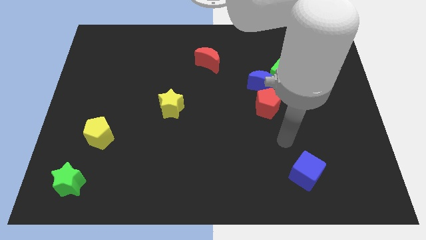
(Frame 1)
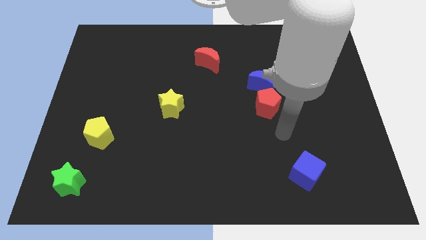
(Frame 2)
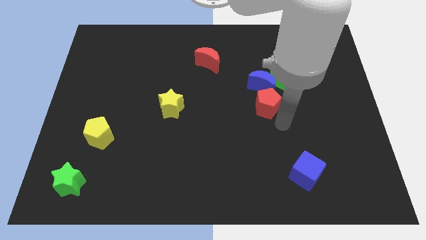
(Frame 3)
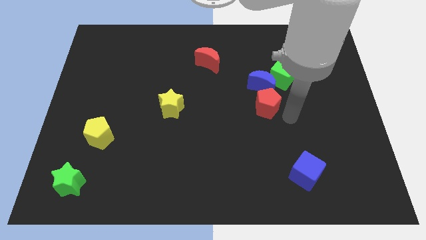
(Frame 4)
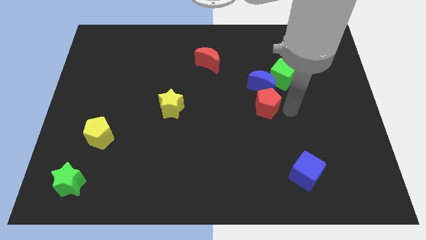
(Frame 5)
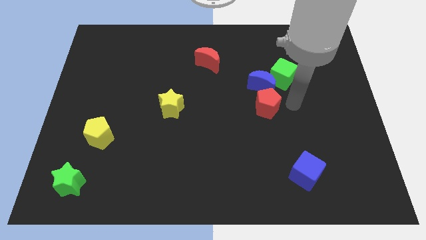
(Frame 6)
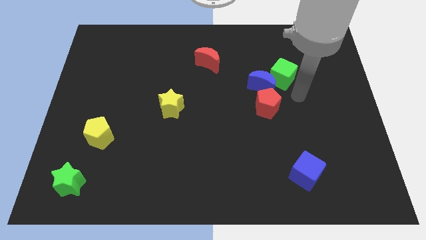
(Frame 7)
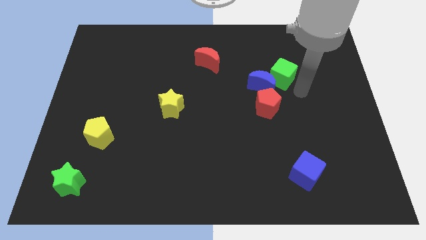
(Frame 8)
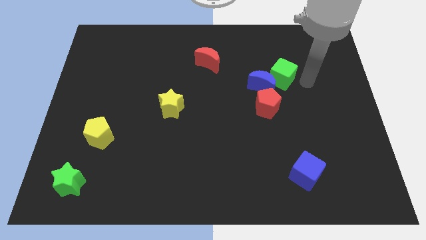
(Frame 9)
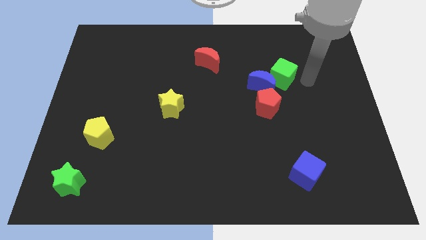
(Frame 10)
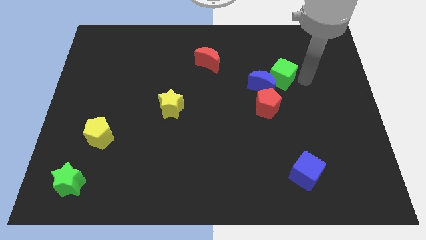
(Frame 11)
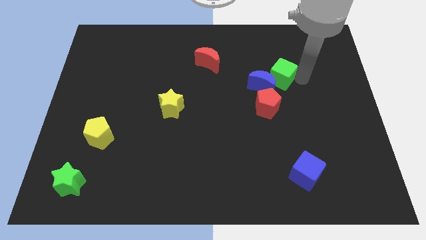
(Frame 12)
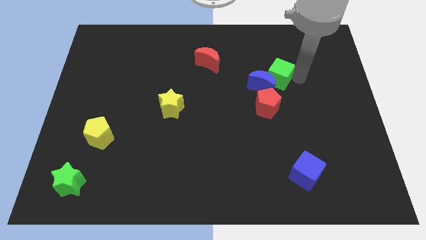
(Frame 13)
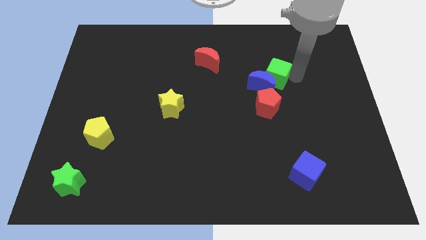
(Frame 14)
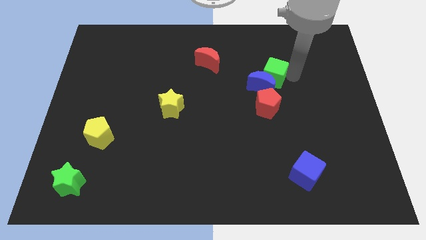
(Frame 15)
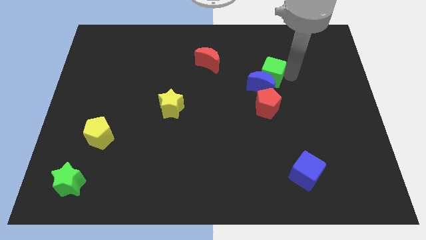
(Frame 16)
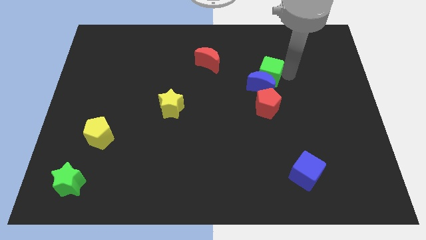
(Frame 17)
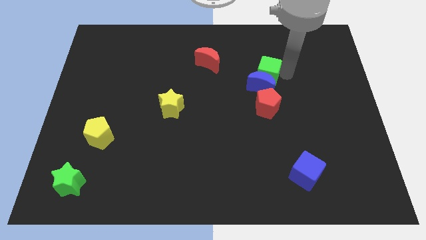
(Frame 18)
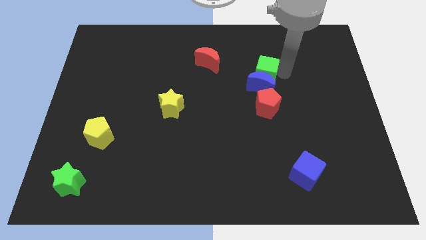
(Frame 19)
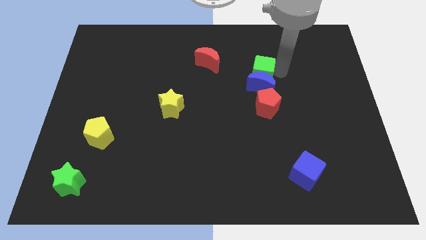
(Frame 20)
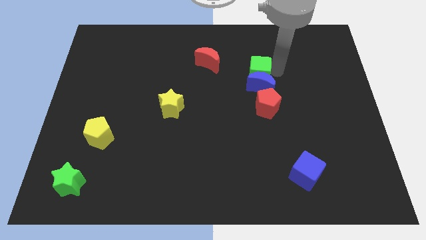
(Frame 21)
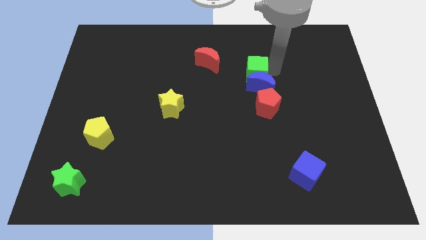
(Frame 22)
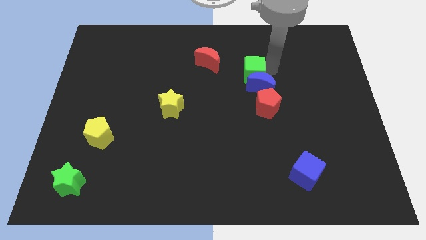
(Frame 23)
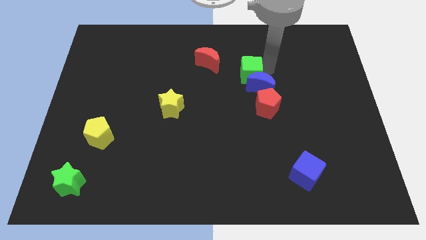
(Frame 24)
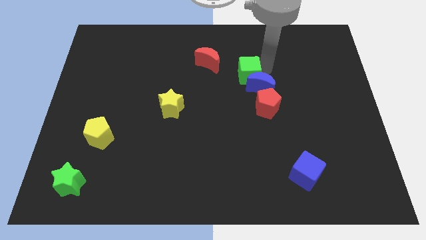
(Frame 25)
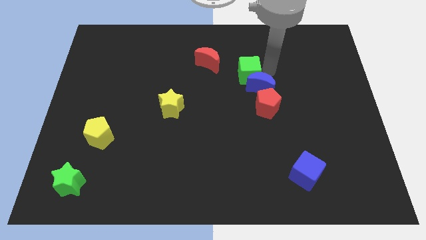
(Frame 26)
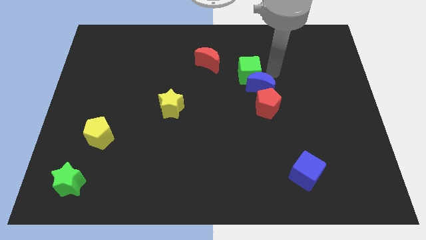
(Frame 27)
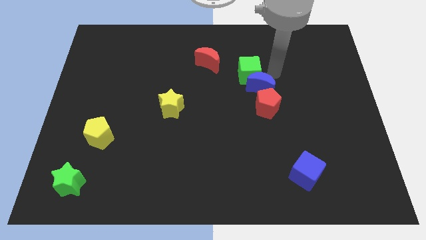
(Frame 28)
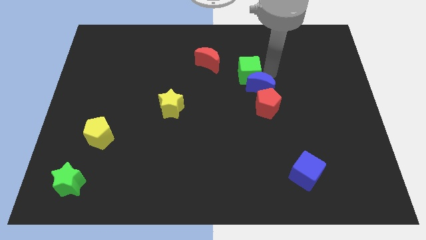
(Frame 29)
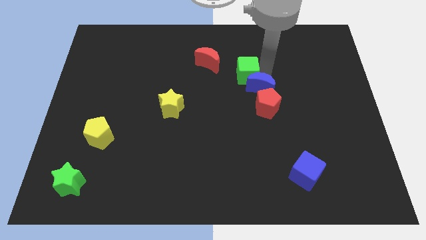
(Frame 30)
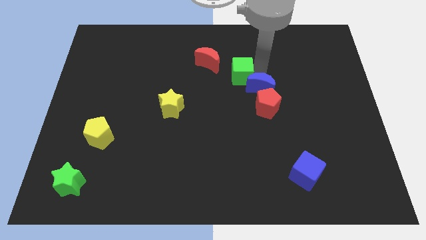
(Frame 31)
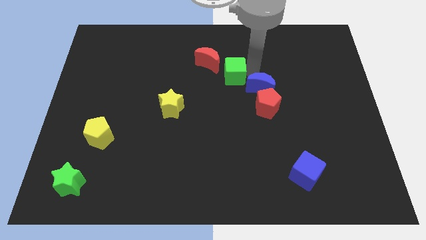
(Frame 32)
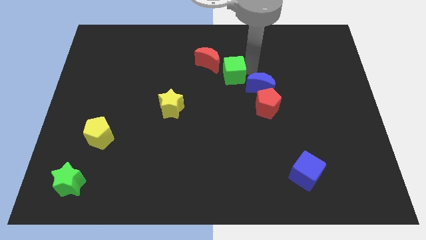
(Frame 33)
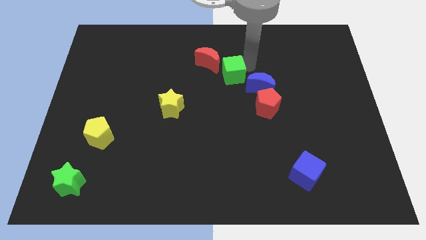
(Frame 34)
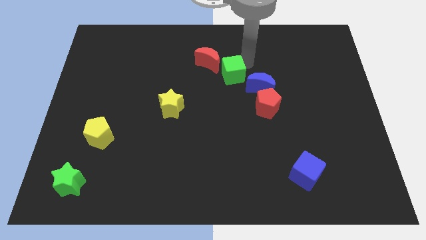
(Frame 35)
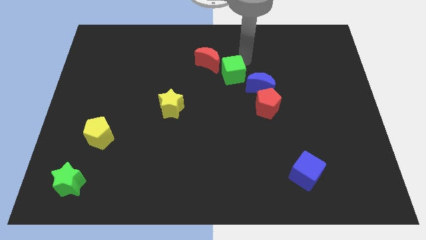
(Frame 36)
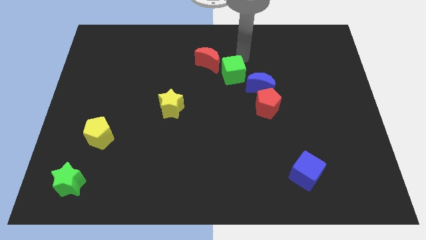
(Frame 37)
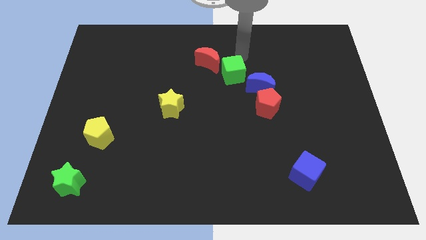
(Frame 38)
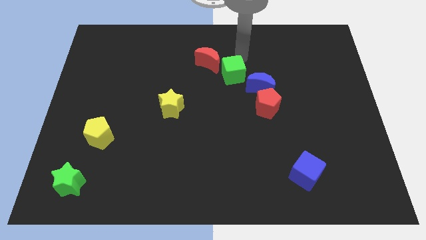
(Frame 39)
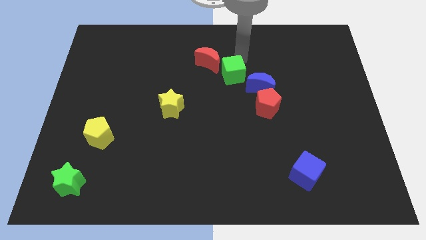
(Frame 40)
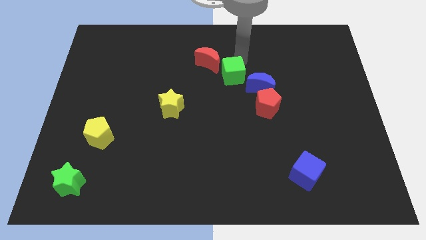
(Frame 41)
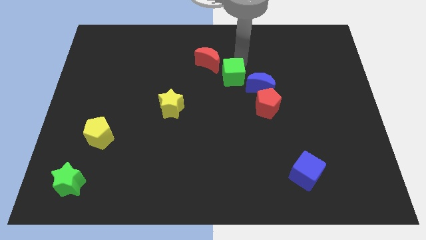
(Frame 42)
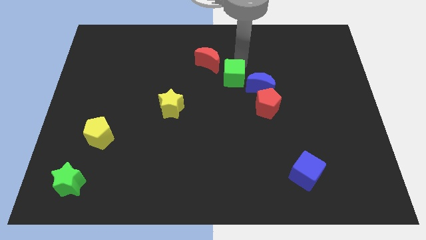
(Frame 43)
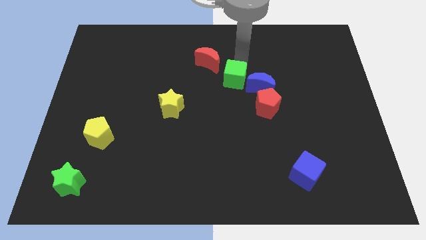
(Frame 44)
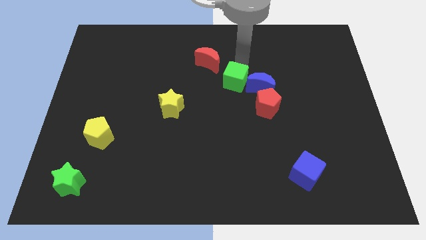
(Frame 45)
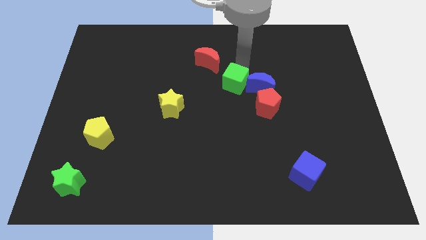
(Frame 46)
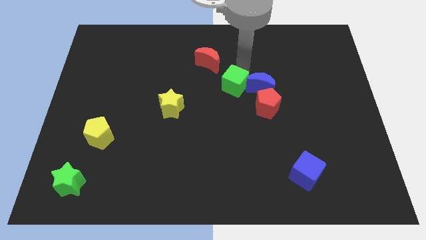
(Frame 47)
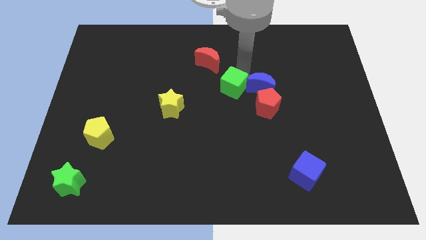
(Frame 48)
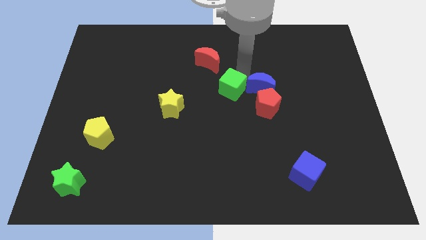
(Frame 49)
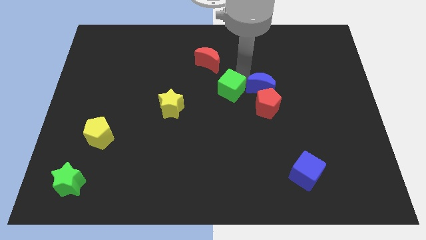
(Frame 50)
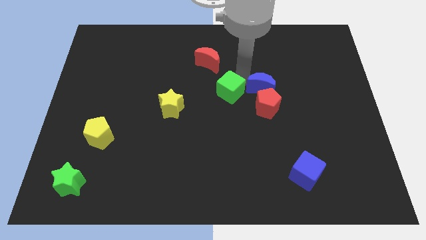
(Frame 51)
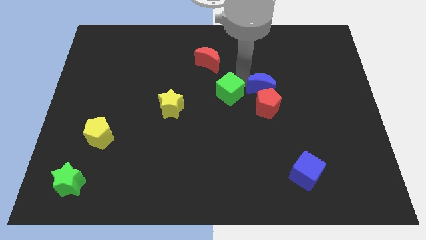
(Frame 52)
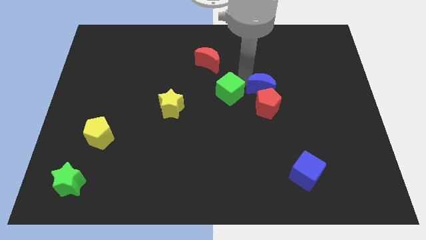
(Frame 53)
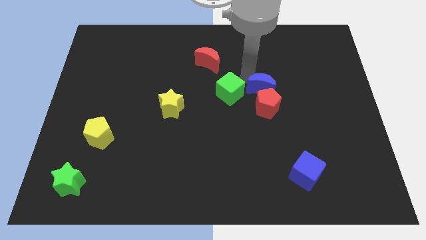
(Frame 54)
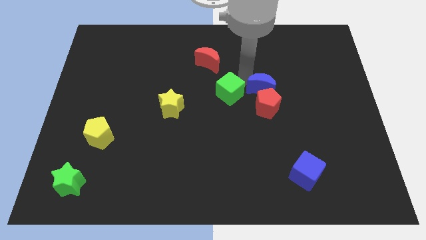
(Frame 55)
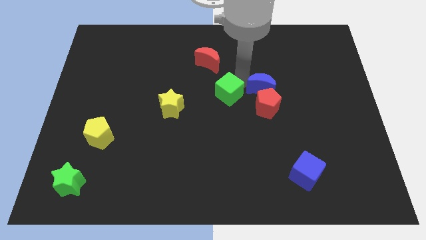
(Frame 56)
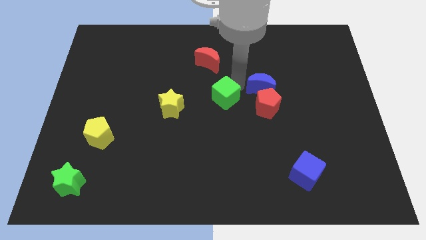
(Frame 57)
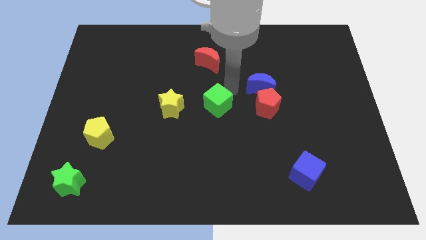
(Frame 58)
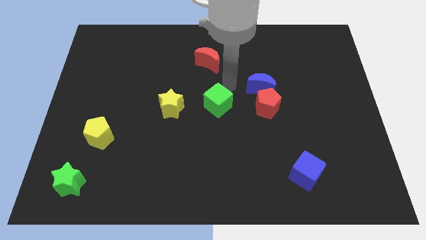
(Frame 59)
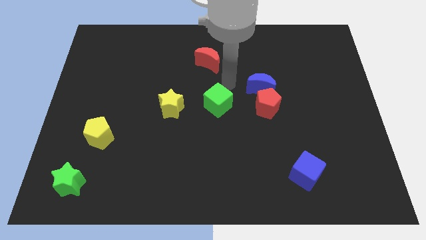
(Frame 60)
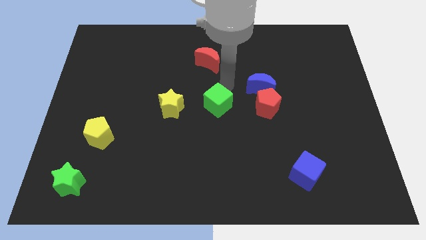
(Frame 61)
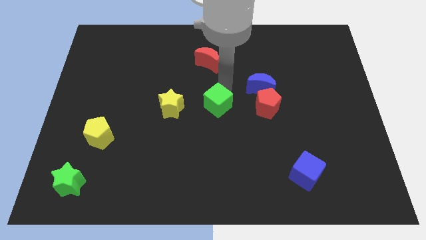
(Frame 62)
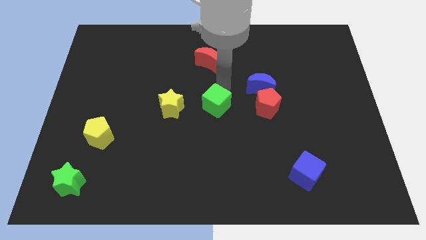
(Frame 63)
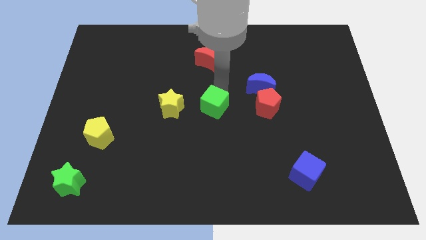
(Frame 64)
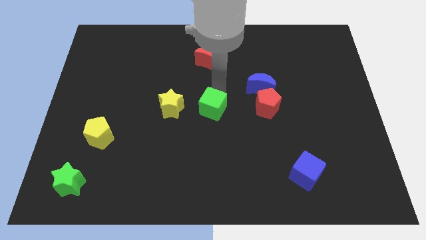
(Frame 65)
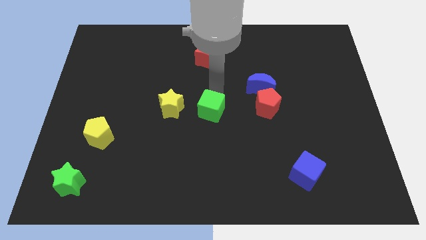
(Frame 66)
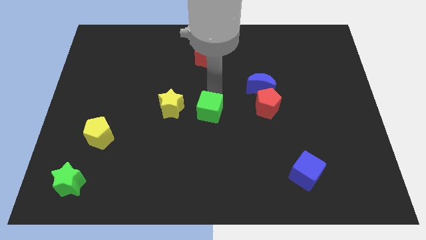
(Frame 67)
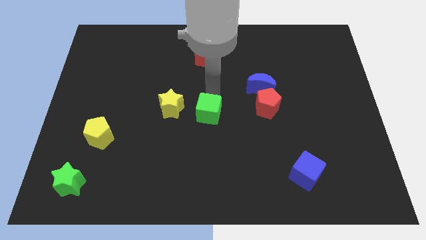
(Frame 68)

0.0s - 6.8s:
move the green cube diagonally down and left

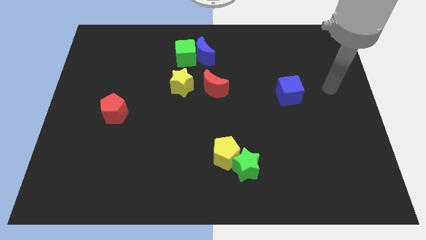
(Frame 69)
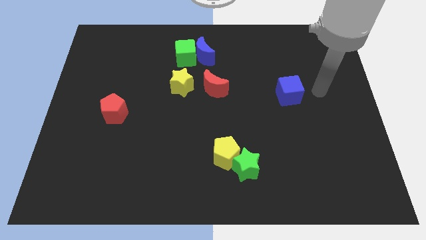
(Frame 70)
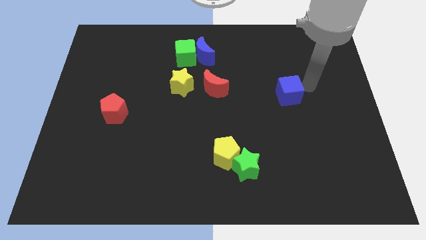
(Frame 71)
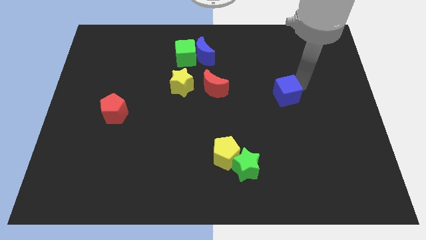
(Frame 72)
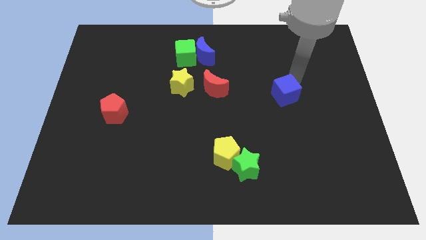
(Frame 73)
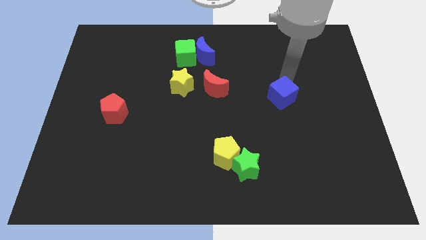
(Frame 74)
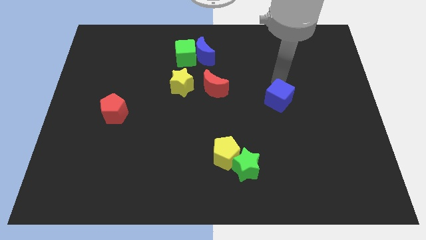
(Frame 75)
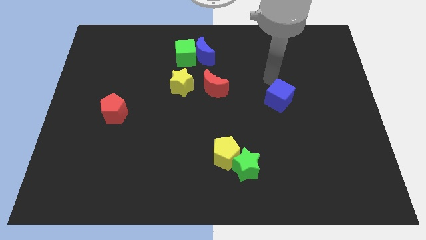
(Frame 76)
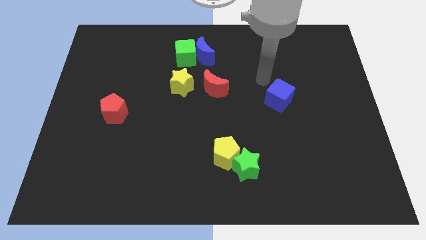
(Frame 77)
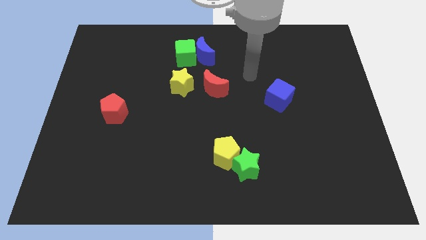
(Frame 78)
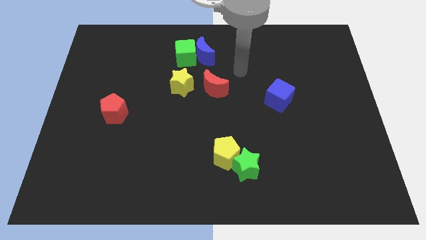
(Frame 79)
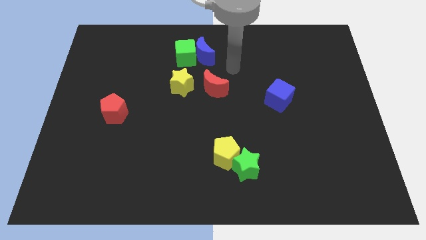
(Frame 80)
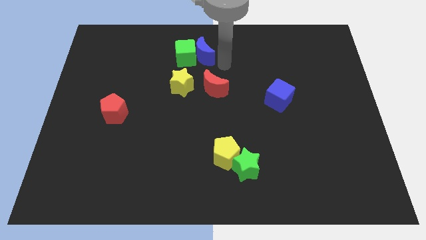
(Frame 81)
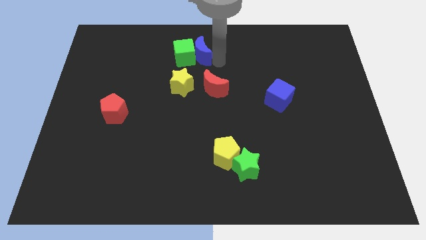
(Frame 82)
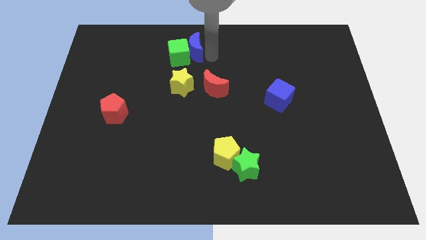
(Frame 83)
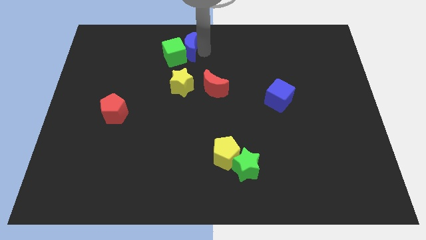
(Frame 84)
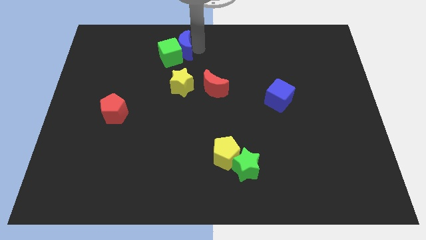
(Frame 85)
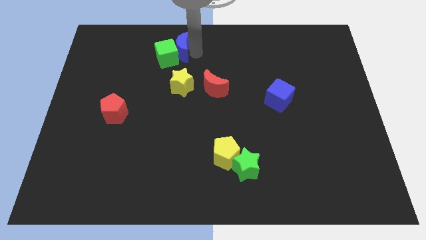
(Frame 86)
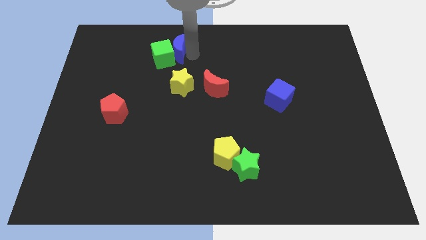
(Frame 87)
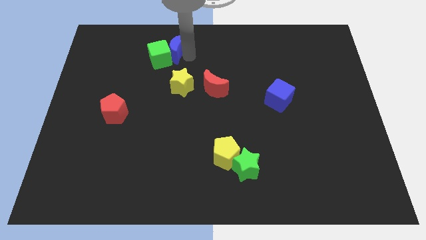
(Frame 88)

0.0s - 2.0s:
slightly move the green cube to the left
